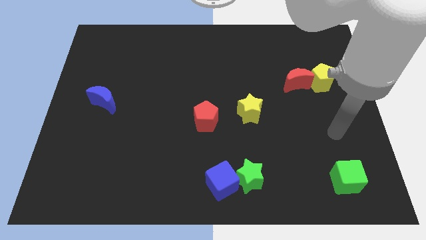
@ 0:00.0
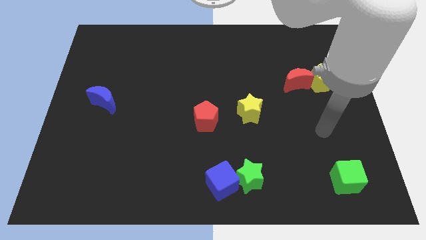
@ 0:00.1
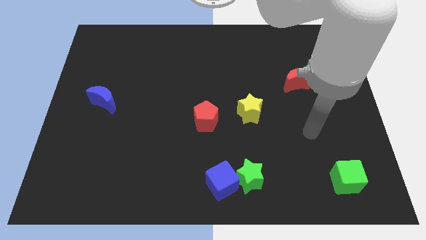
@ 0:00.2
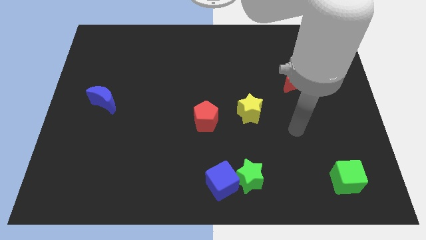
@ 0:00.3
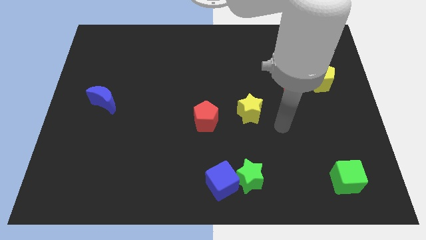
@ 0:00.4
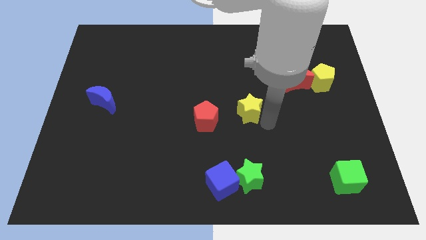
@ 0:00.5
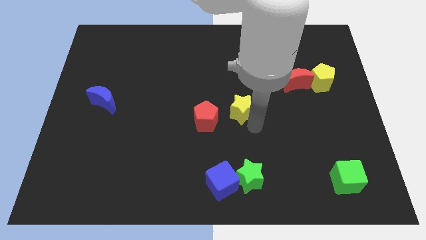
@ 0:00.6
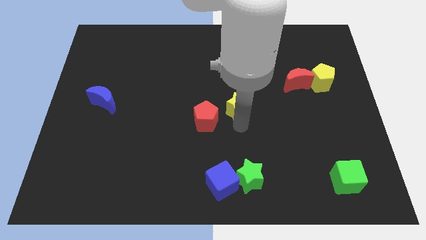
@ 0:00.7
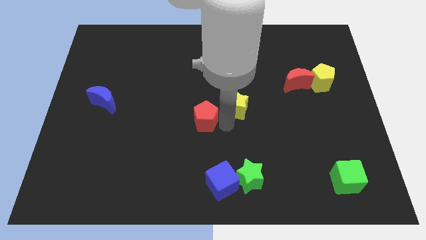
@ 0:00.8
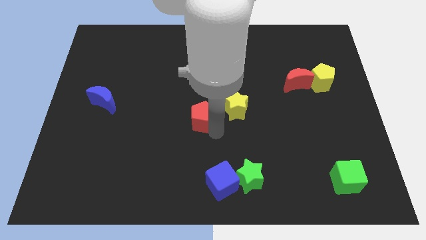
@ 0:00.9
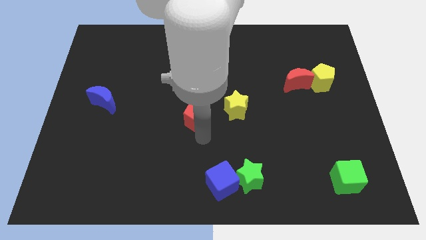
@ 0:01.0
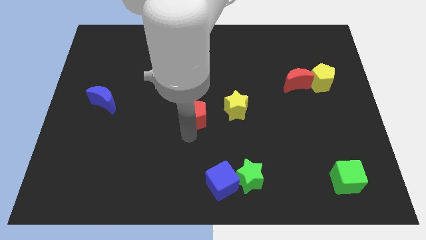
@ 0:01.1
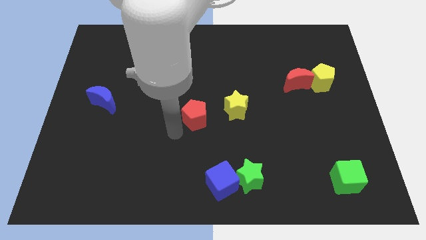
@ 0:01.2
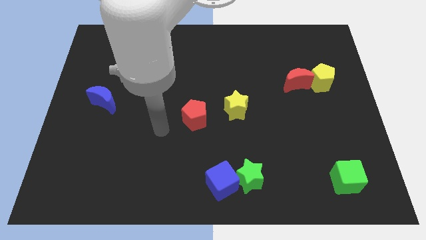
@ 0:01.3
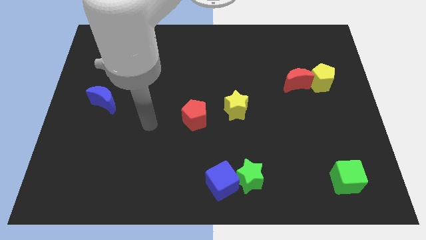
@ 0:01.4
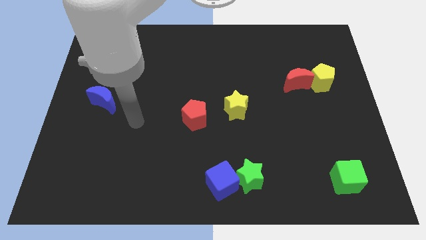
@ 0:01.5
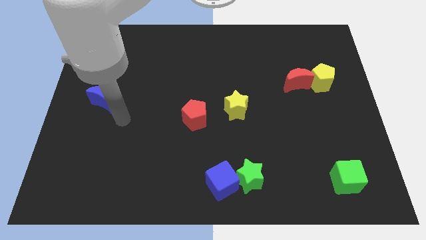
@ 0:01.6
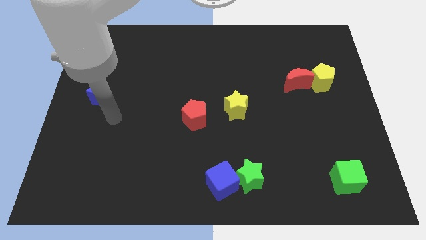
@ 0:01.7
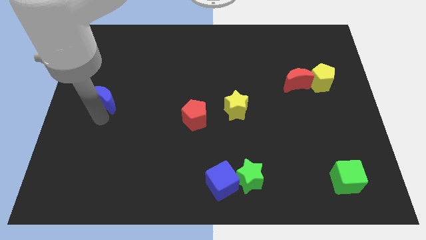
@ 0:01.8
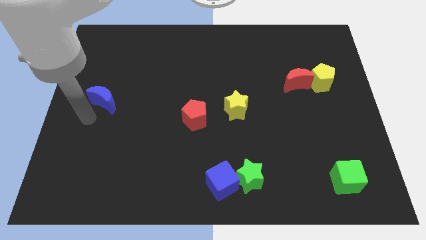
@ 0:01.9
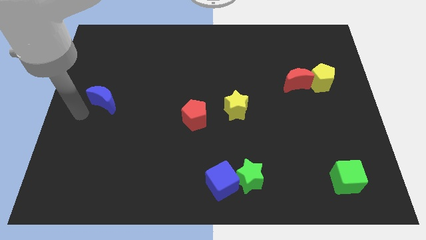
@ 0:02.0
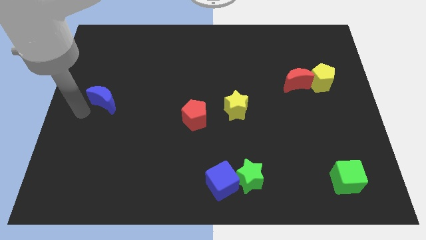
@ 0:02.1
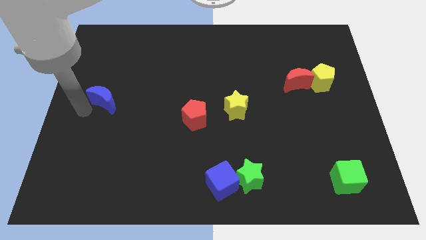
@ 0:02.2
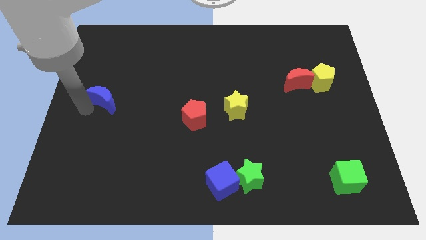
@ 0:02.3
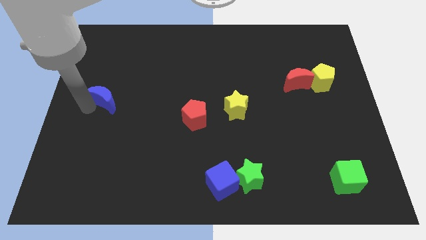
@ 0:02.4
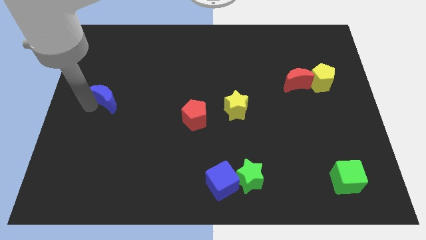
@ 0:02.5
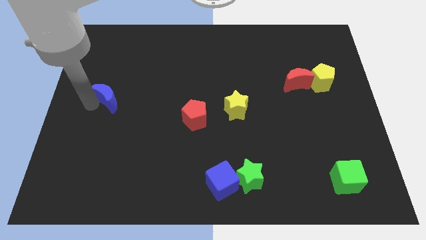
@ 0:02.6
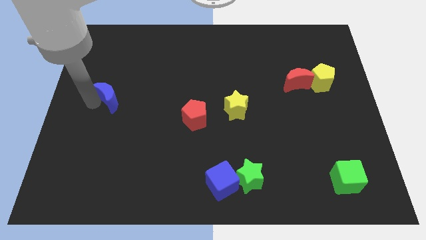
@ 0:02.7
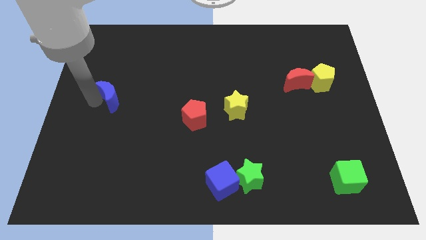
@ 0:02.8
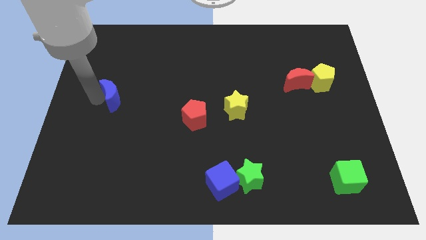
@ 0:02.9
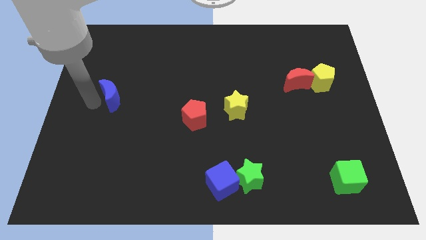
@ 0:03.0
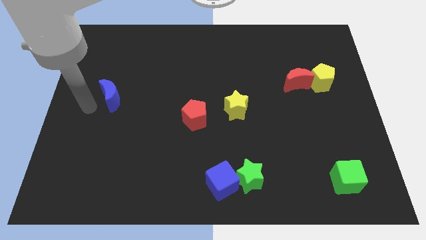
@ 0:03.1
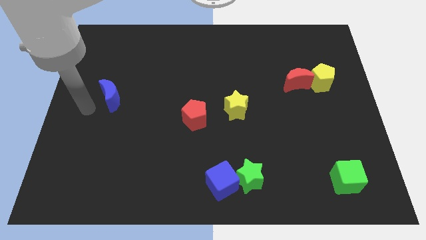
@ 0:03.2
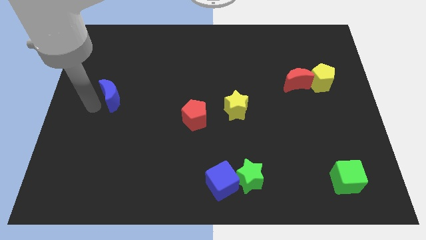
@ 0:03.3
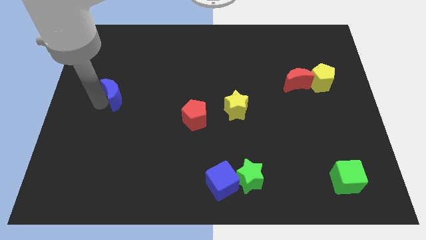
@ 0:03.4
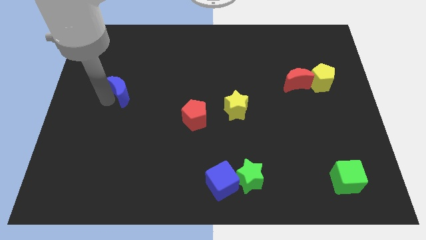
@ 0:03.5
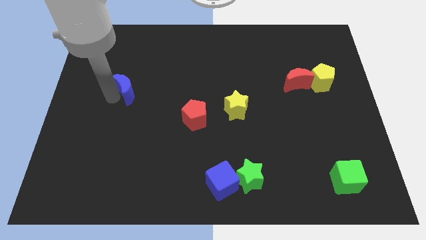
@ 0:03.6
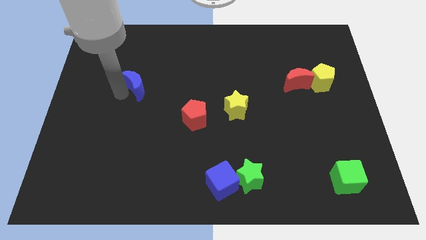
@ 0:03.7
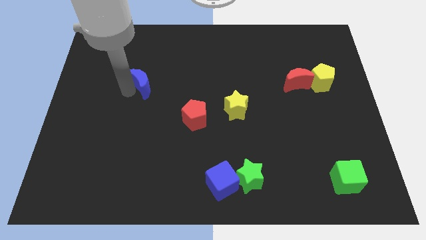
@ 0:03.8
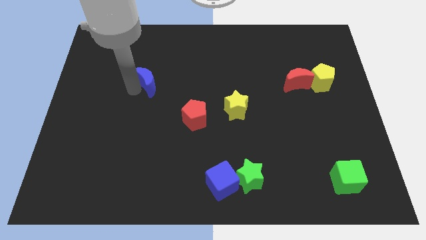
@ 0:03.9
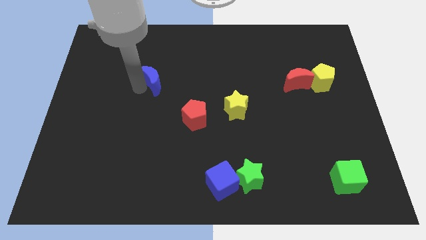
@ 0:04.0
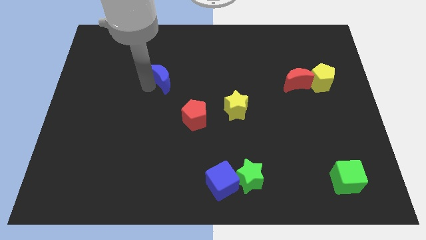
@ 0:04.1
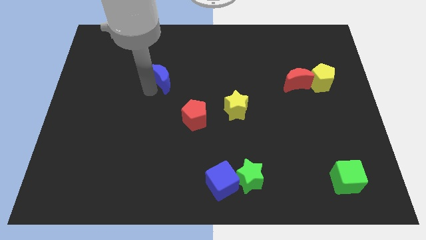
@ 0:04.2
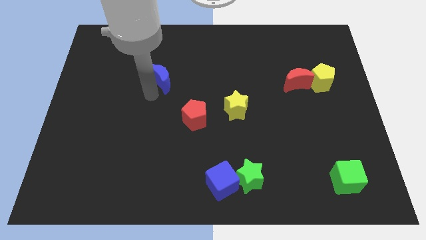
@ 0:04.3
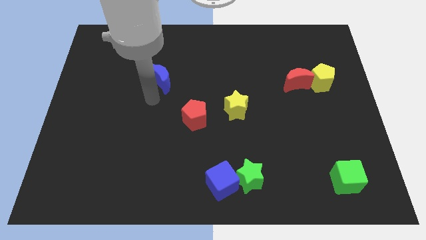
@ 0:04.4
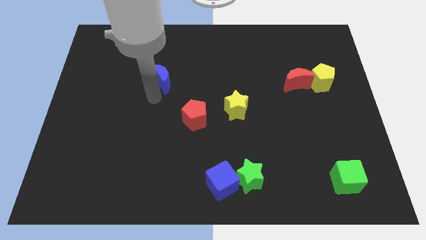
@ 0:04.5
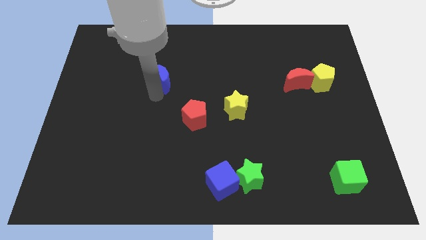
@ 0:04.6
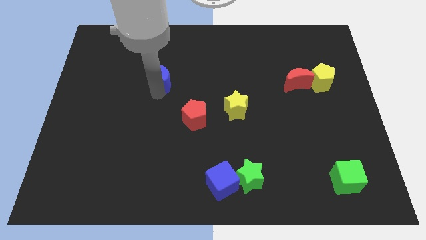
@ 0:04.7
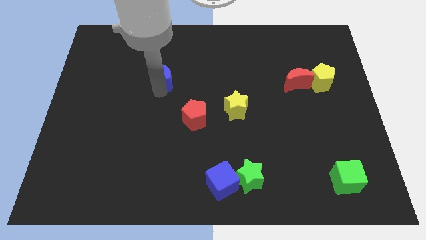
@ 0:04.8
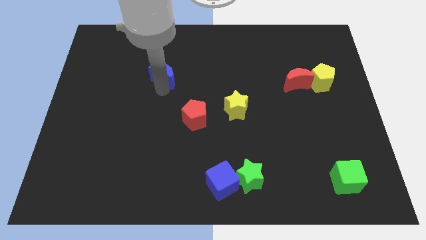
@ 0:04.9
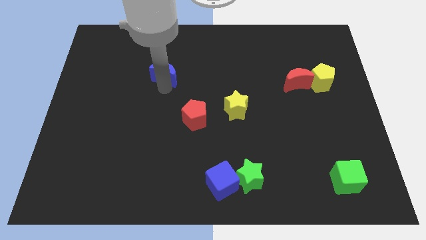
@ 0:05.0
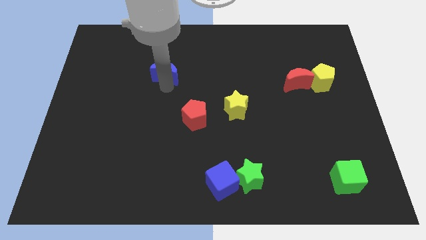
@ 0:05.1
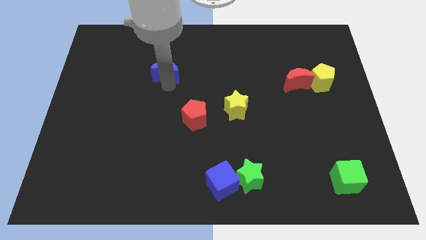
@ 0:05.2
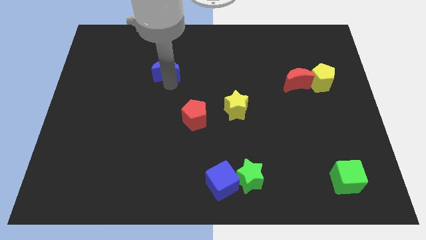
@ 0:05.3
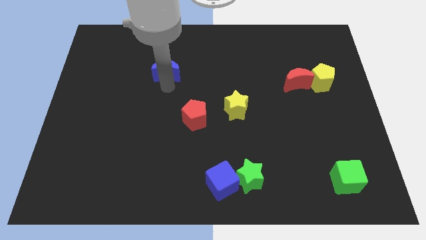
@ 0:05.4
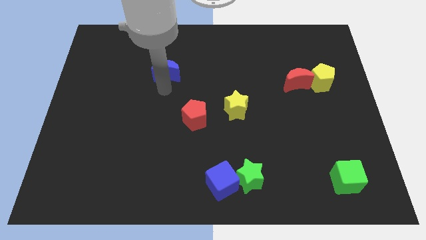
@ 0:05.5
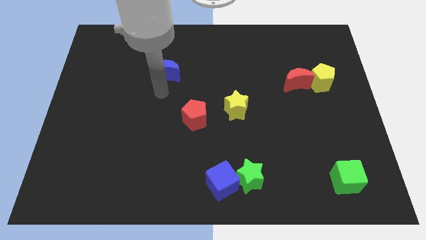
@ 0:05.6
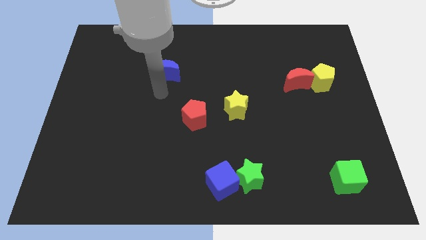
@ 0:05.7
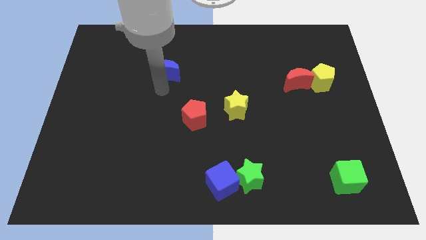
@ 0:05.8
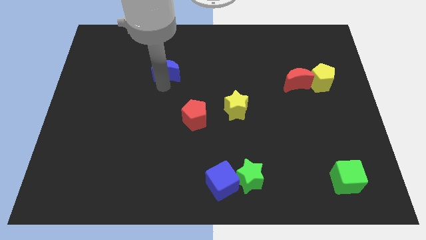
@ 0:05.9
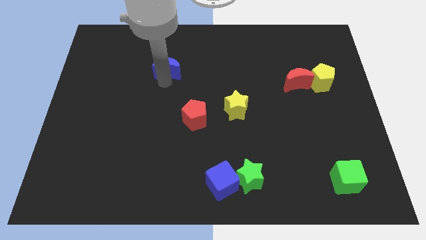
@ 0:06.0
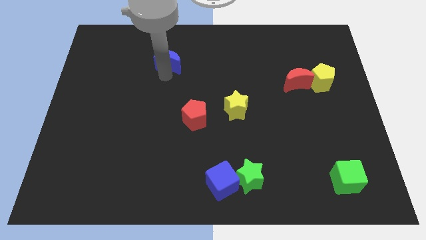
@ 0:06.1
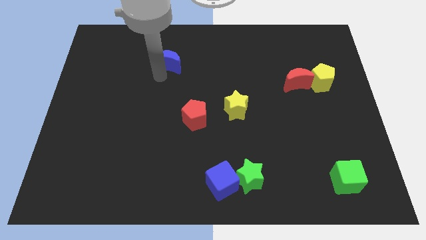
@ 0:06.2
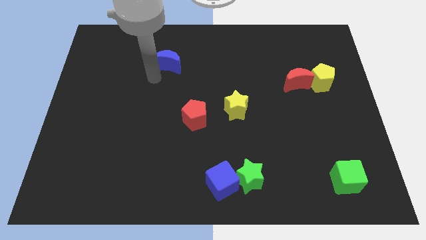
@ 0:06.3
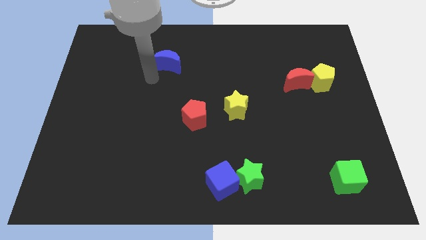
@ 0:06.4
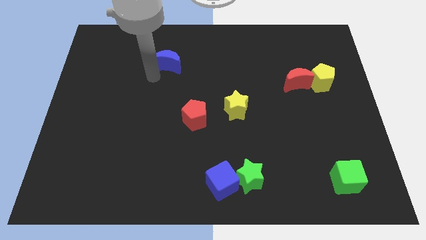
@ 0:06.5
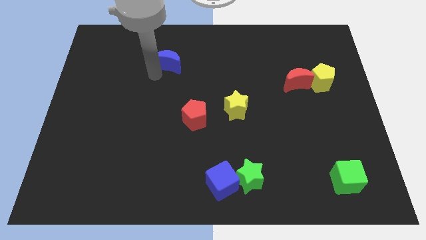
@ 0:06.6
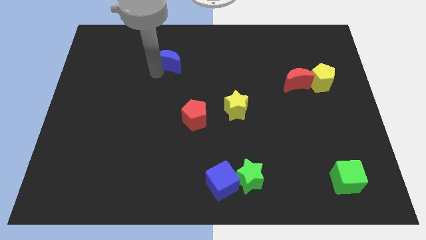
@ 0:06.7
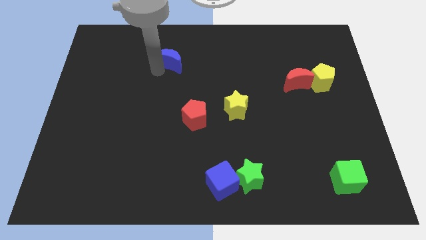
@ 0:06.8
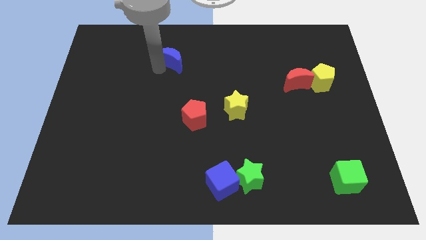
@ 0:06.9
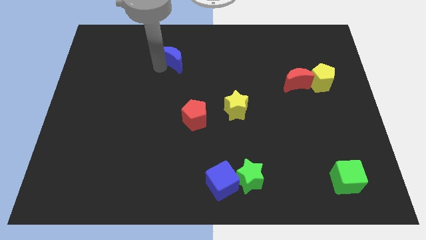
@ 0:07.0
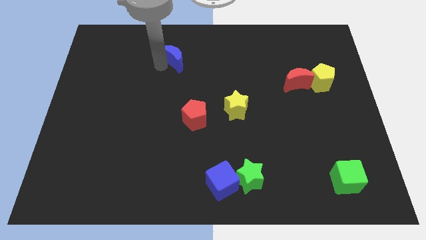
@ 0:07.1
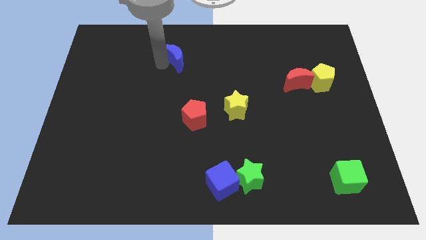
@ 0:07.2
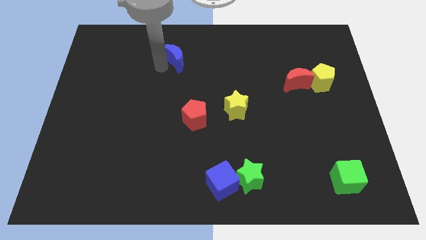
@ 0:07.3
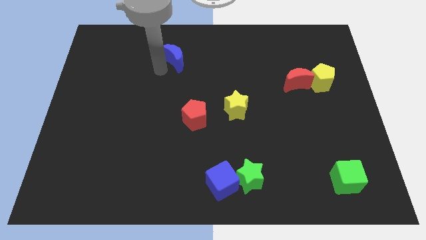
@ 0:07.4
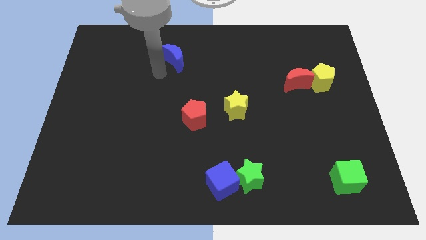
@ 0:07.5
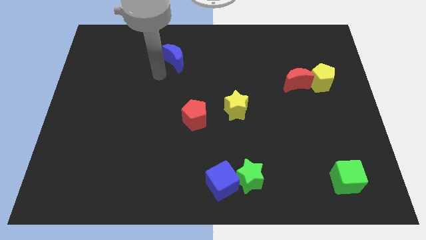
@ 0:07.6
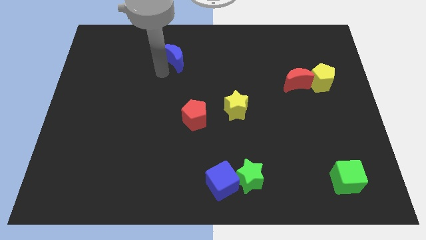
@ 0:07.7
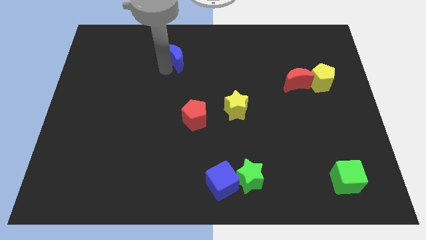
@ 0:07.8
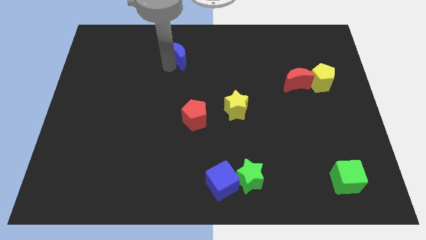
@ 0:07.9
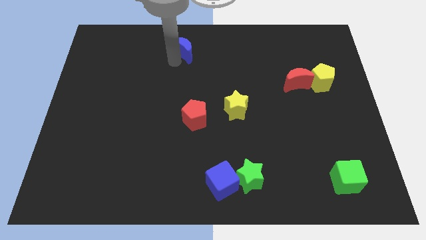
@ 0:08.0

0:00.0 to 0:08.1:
push the blue moon to the towards your base
